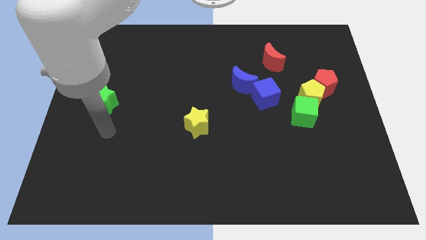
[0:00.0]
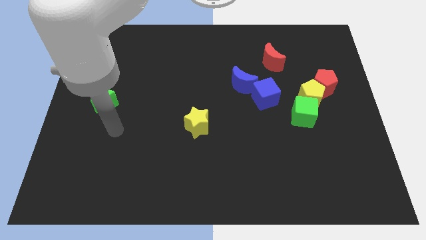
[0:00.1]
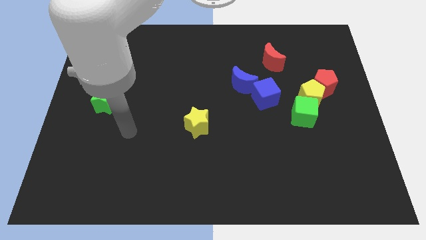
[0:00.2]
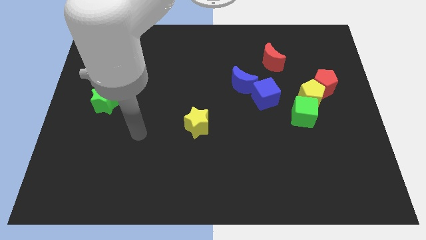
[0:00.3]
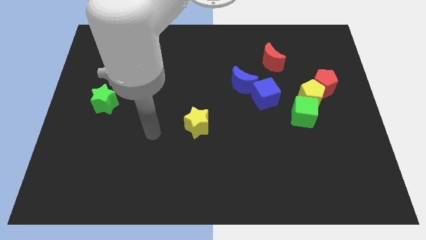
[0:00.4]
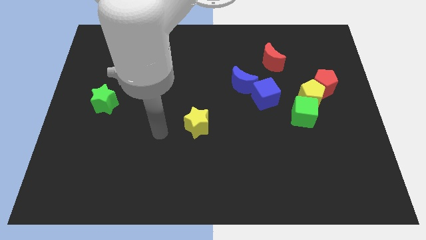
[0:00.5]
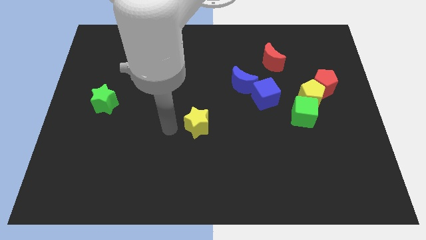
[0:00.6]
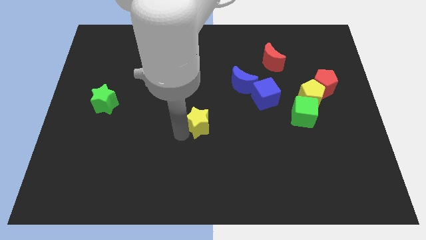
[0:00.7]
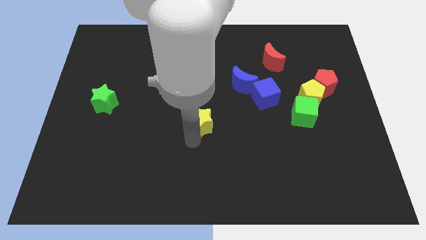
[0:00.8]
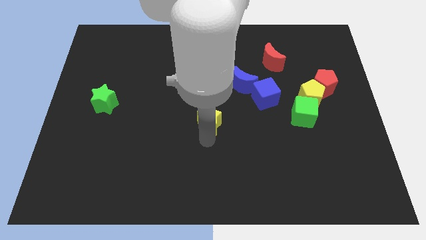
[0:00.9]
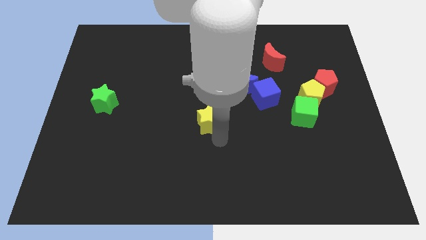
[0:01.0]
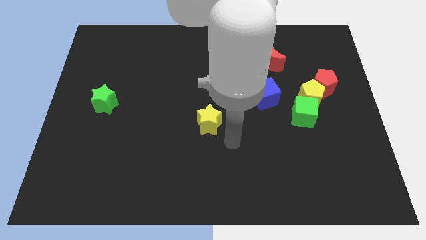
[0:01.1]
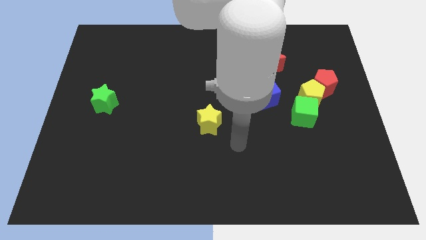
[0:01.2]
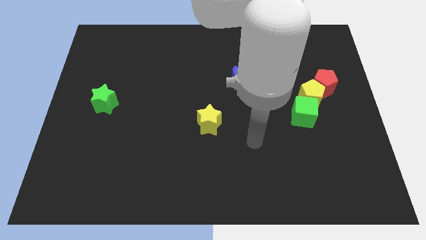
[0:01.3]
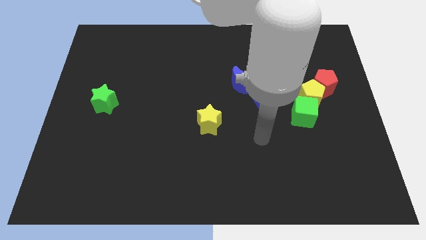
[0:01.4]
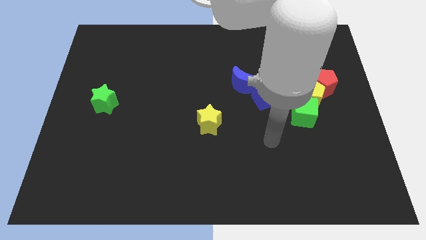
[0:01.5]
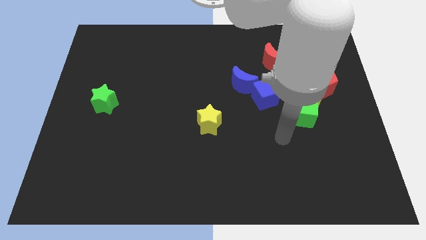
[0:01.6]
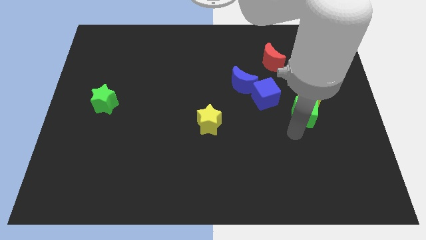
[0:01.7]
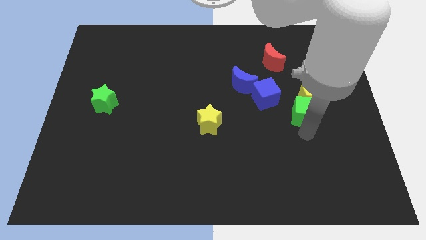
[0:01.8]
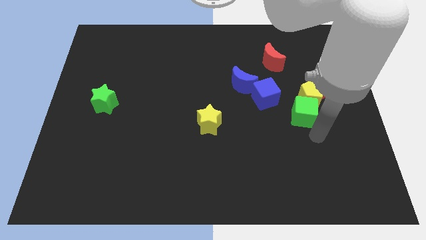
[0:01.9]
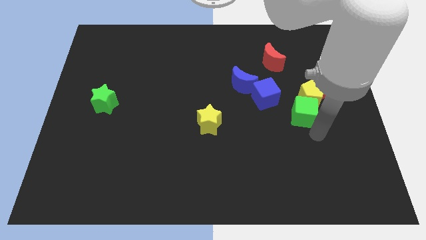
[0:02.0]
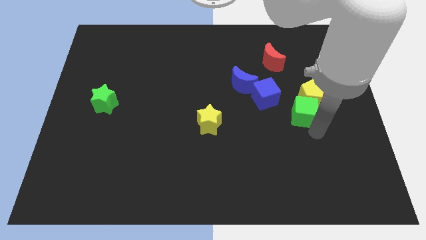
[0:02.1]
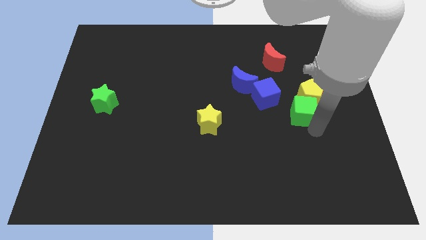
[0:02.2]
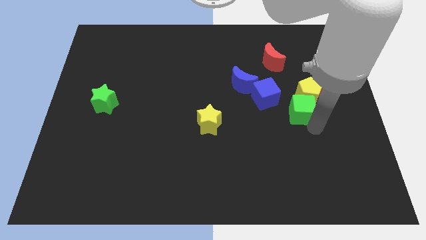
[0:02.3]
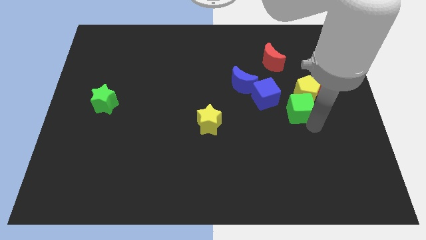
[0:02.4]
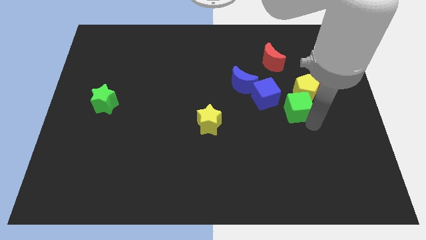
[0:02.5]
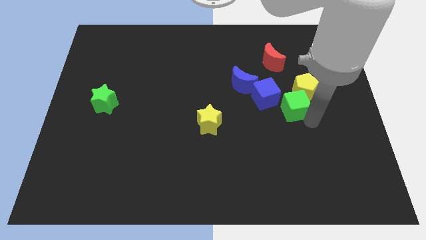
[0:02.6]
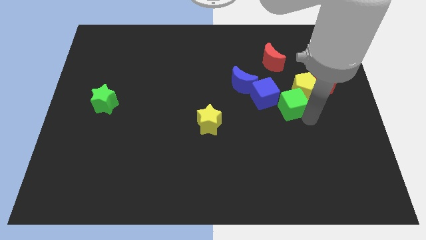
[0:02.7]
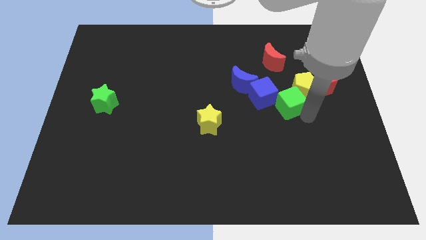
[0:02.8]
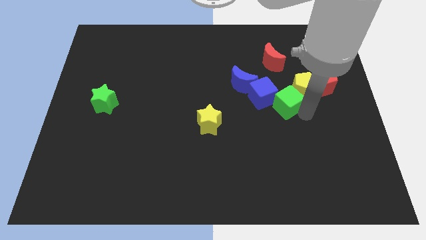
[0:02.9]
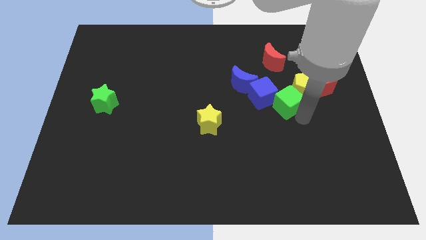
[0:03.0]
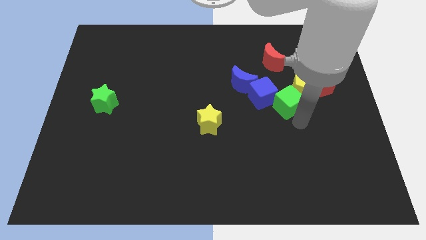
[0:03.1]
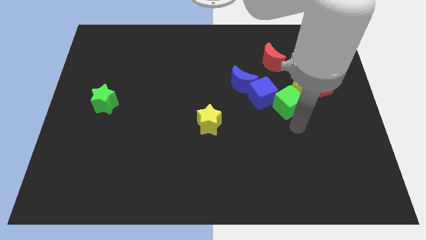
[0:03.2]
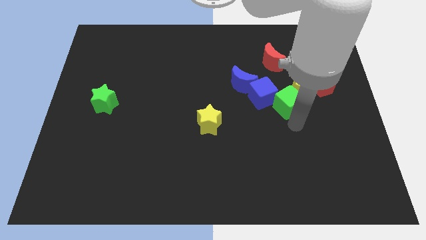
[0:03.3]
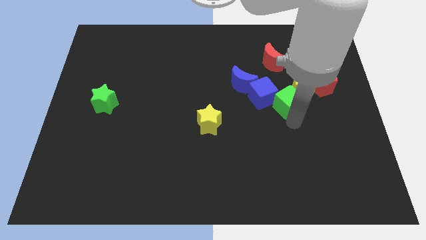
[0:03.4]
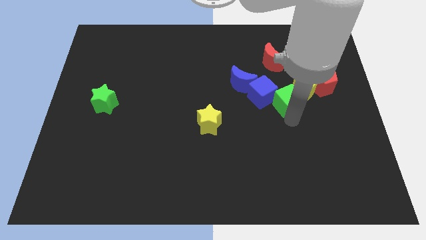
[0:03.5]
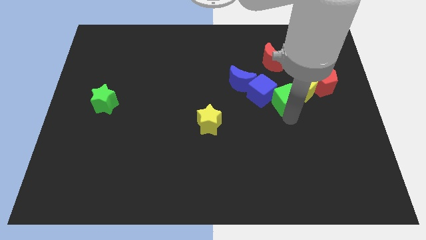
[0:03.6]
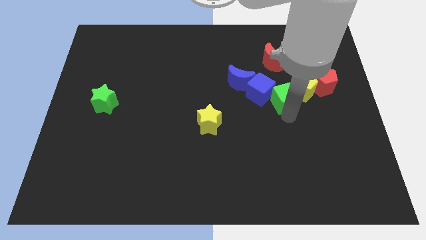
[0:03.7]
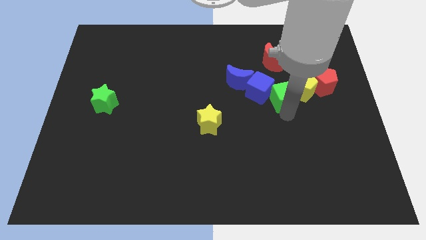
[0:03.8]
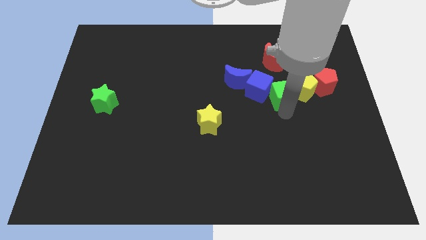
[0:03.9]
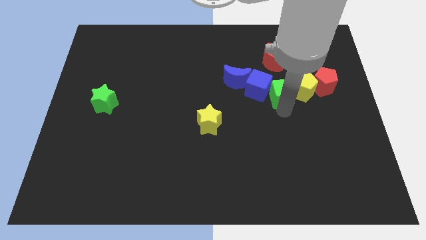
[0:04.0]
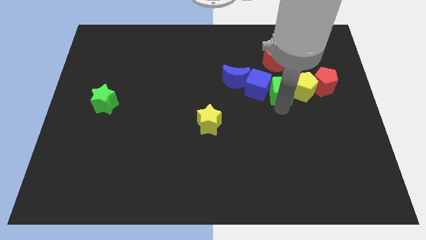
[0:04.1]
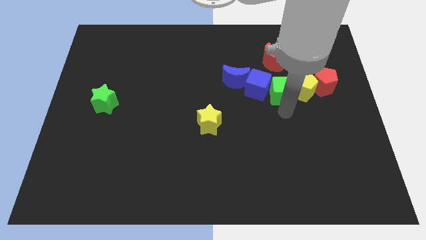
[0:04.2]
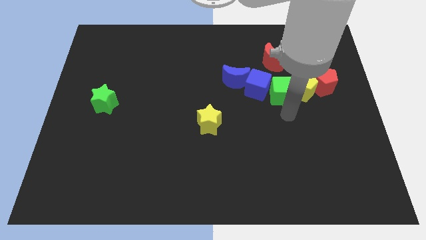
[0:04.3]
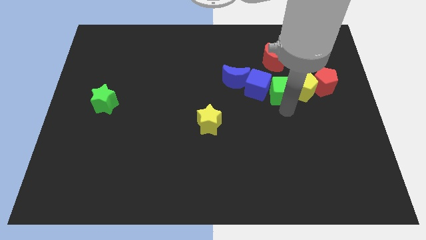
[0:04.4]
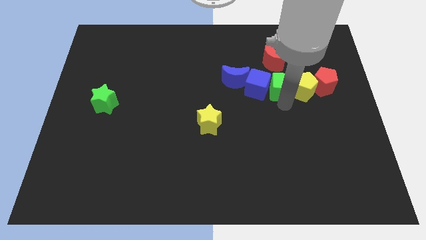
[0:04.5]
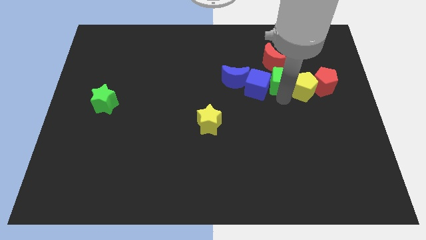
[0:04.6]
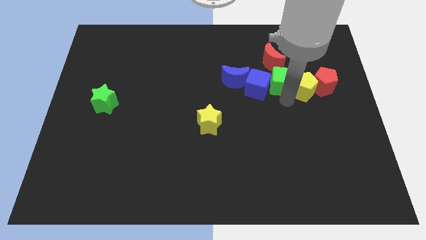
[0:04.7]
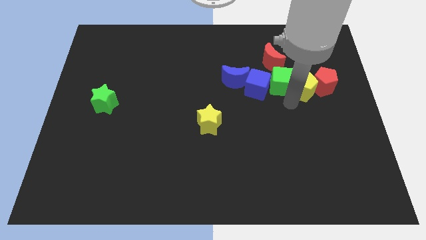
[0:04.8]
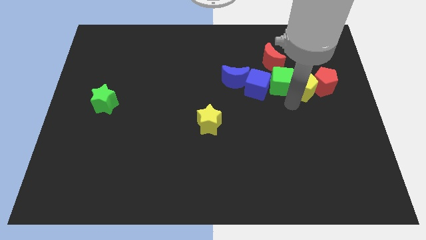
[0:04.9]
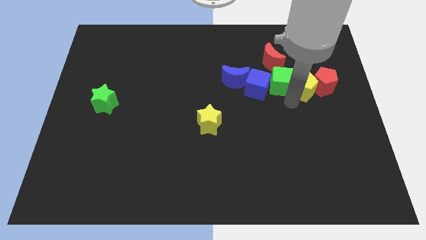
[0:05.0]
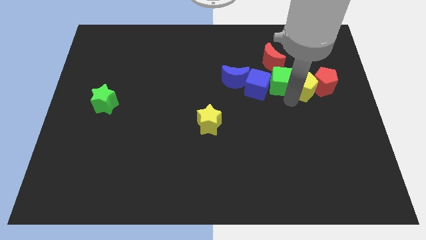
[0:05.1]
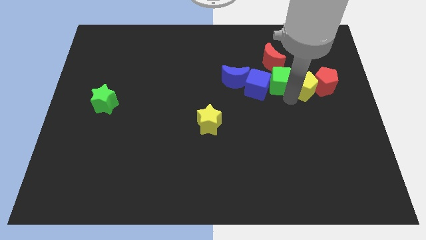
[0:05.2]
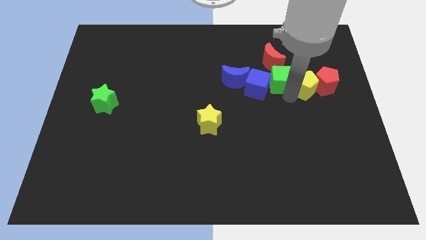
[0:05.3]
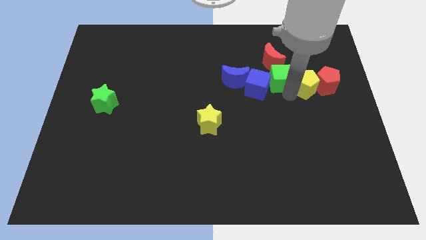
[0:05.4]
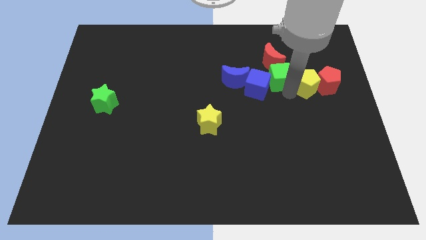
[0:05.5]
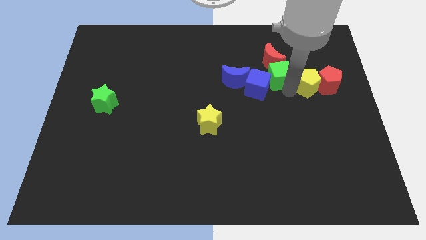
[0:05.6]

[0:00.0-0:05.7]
put the green cube close to the red moon

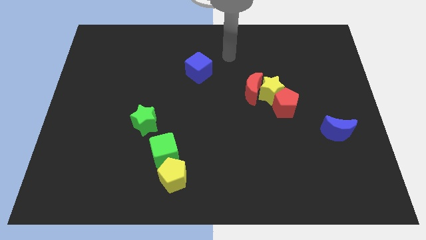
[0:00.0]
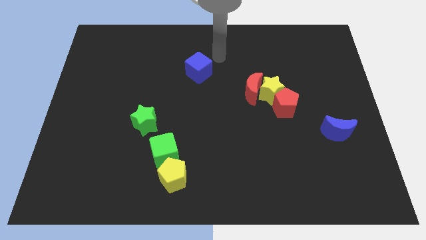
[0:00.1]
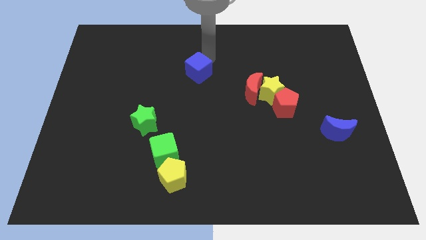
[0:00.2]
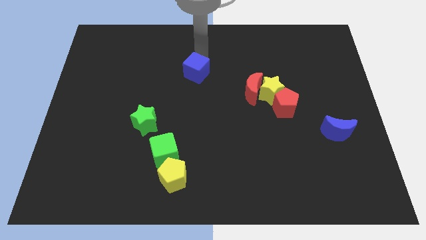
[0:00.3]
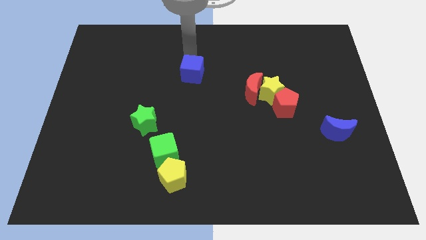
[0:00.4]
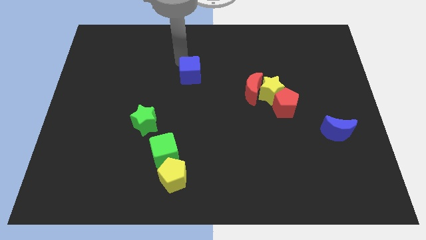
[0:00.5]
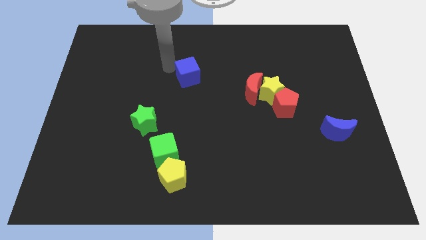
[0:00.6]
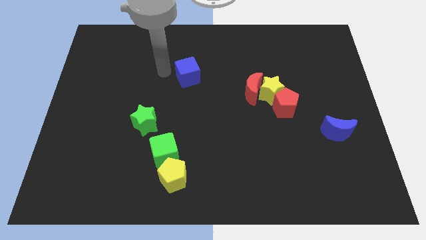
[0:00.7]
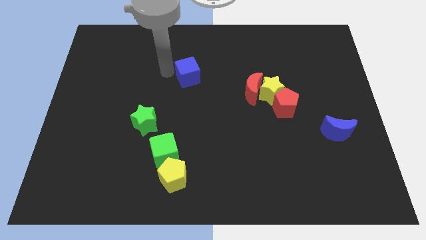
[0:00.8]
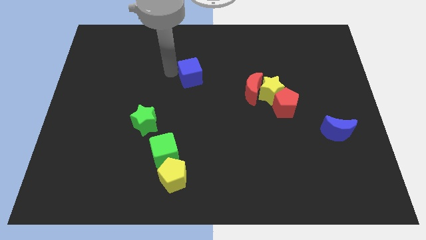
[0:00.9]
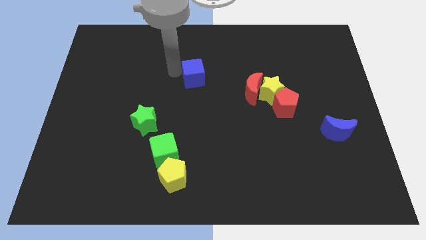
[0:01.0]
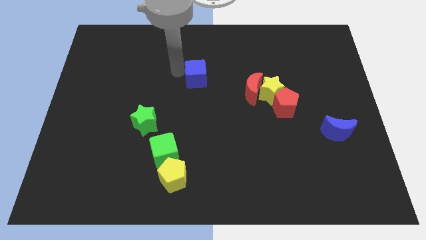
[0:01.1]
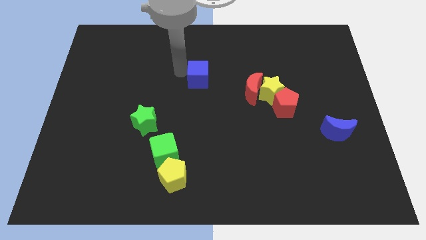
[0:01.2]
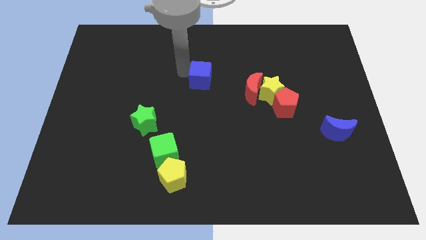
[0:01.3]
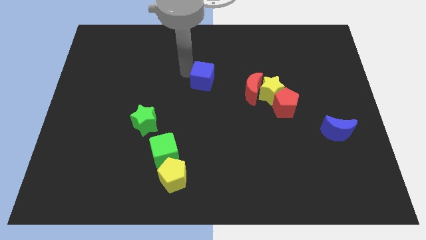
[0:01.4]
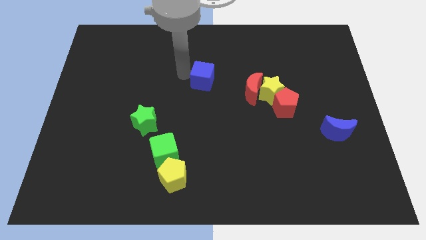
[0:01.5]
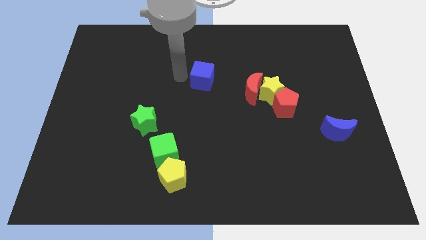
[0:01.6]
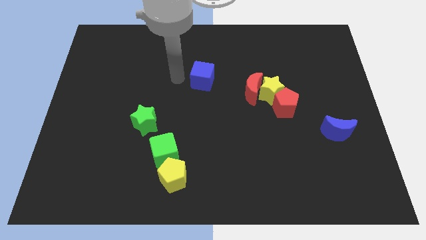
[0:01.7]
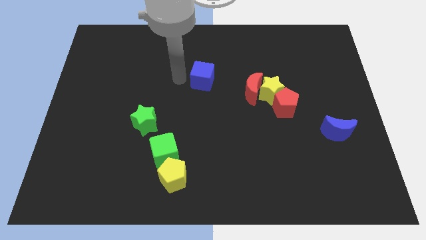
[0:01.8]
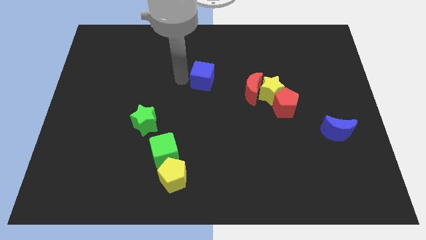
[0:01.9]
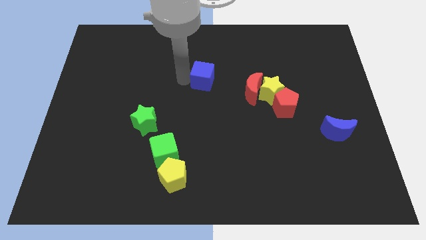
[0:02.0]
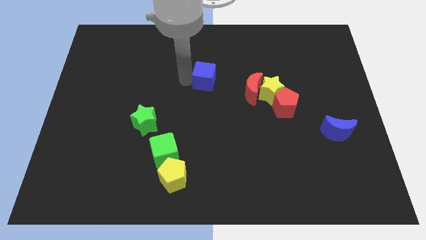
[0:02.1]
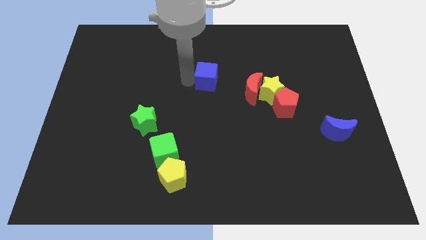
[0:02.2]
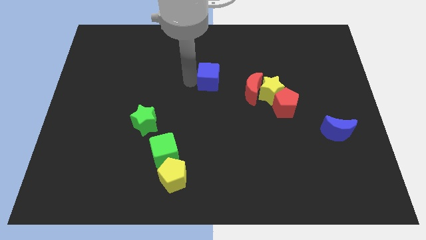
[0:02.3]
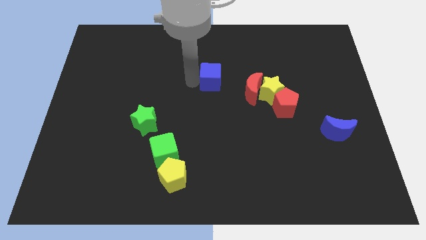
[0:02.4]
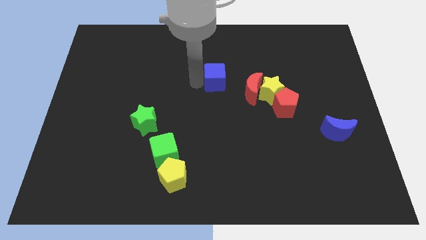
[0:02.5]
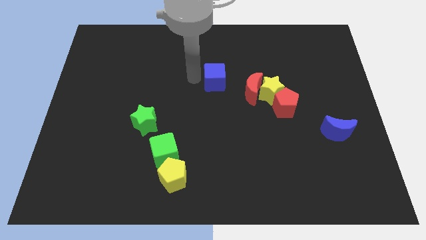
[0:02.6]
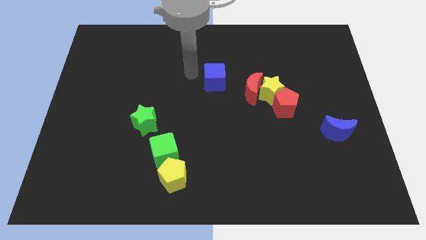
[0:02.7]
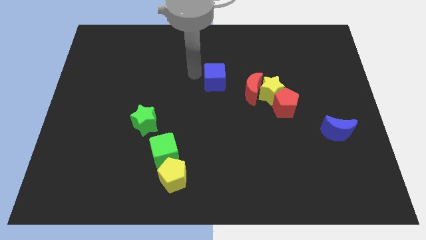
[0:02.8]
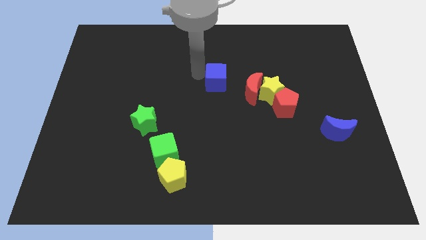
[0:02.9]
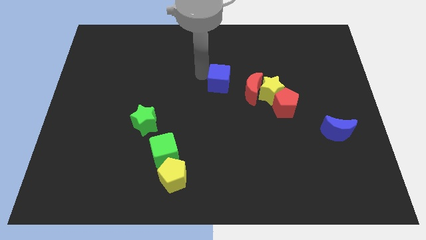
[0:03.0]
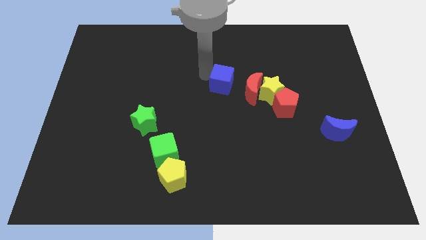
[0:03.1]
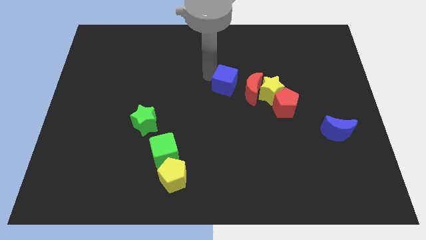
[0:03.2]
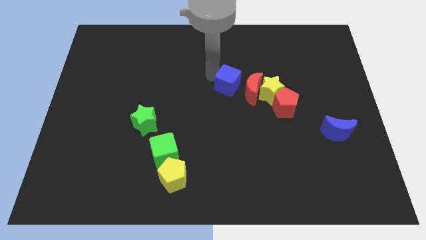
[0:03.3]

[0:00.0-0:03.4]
put the blue cube to the red moon
